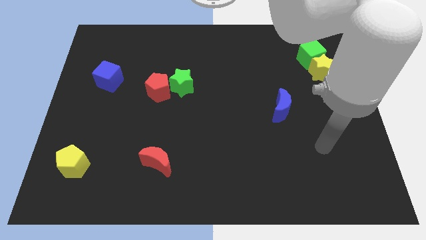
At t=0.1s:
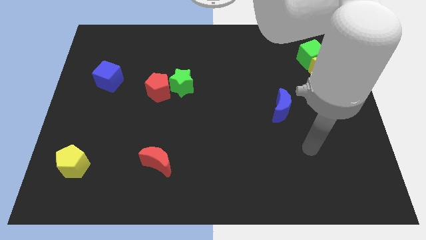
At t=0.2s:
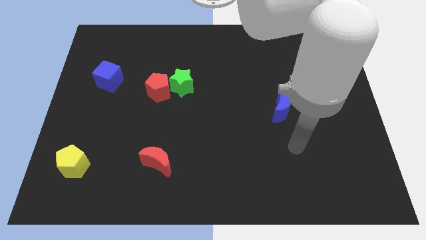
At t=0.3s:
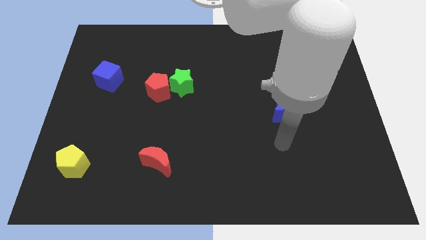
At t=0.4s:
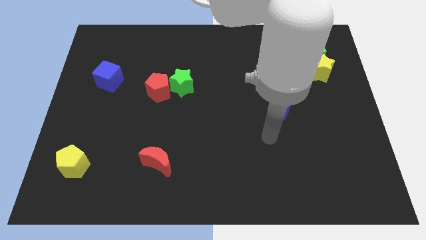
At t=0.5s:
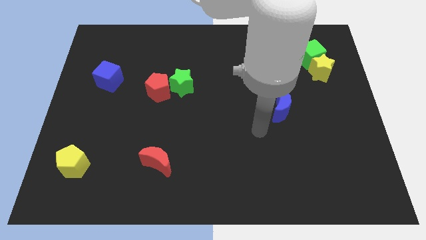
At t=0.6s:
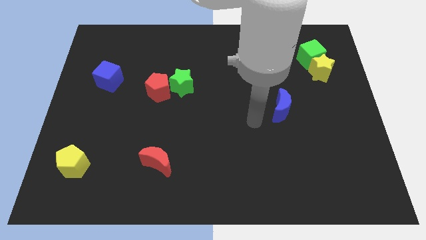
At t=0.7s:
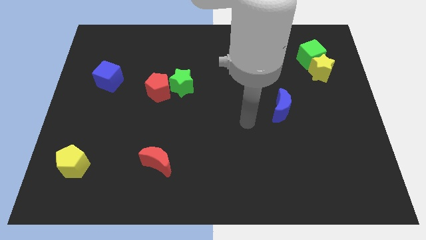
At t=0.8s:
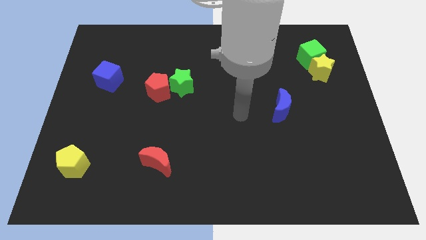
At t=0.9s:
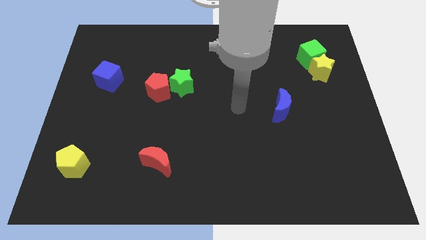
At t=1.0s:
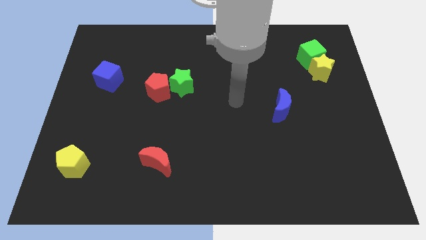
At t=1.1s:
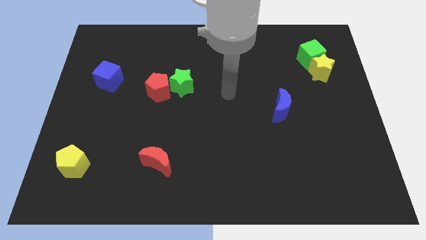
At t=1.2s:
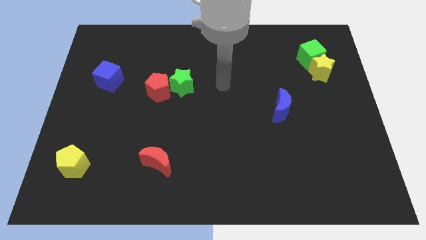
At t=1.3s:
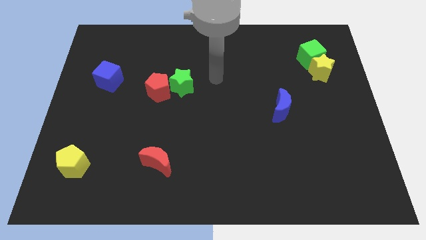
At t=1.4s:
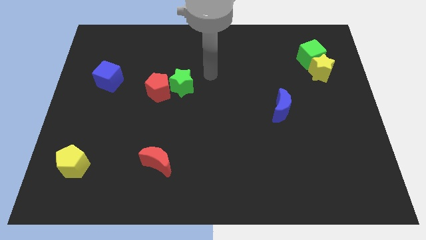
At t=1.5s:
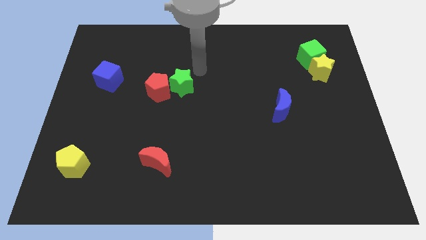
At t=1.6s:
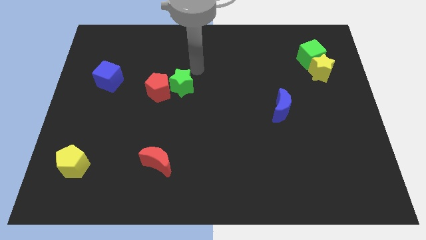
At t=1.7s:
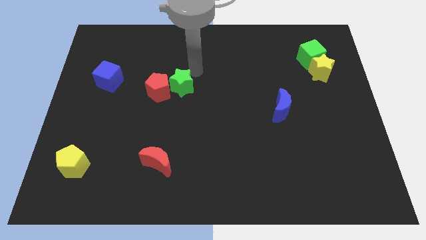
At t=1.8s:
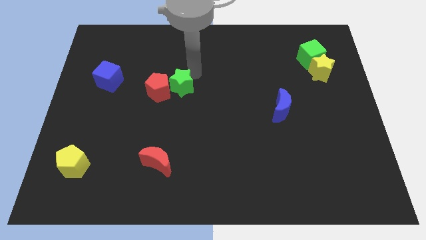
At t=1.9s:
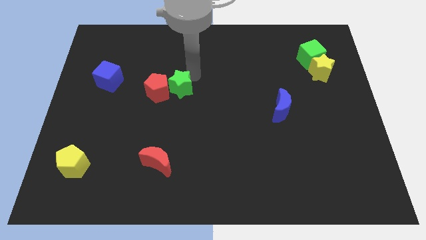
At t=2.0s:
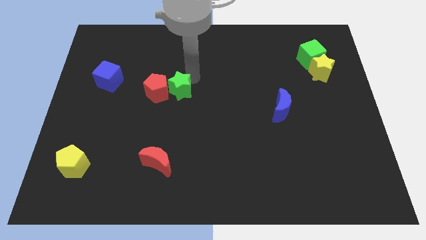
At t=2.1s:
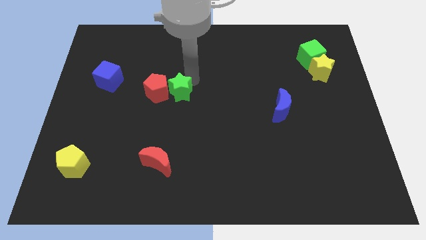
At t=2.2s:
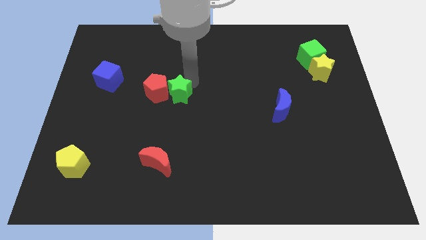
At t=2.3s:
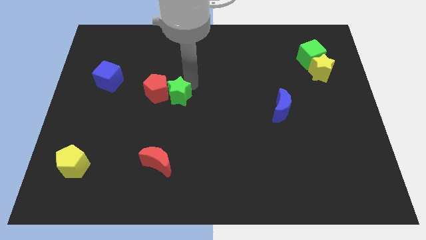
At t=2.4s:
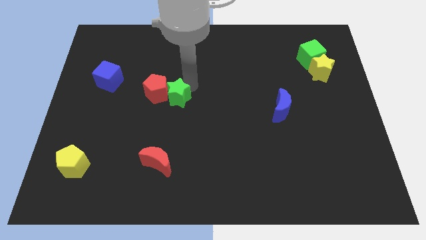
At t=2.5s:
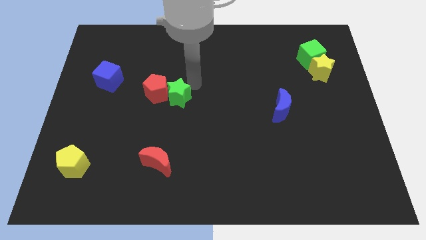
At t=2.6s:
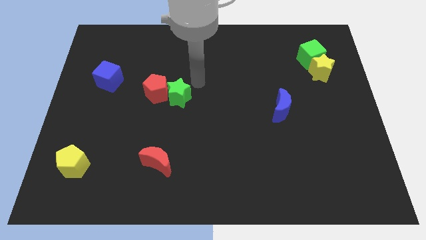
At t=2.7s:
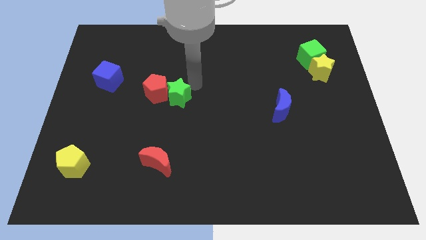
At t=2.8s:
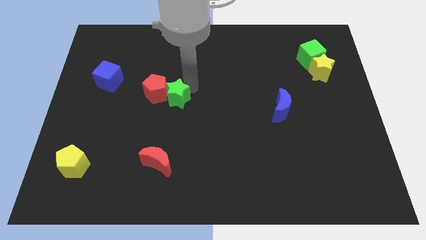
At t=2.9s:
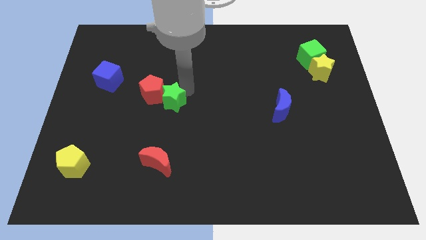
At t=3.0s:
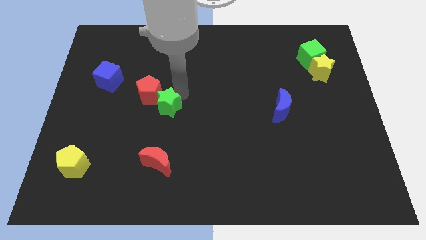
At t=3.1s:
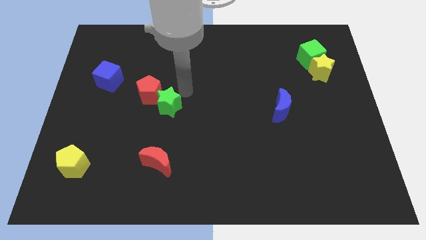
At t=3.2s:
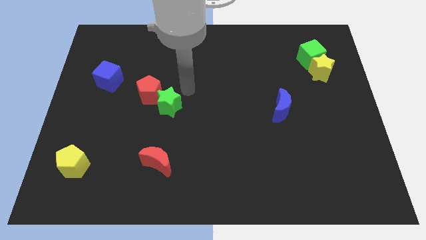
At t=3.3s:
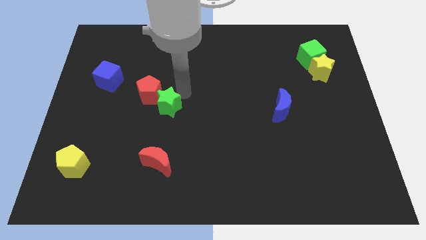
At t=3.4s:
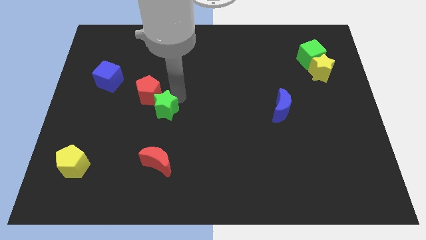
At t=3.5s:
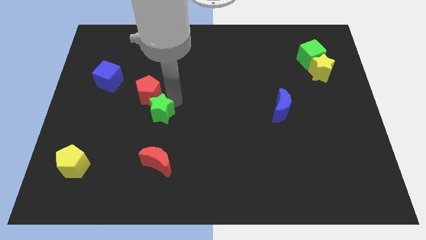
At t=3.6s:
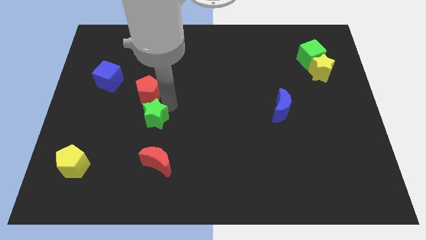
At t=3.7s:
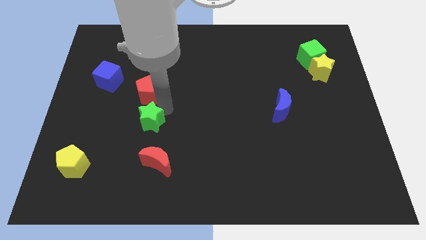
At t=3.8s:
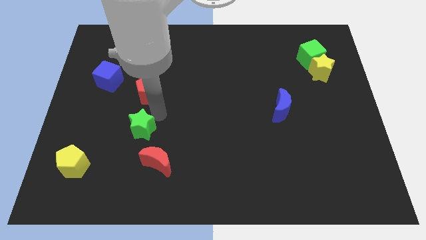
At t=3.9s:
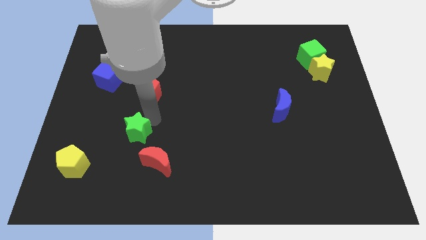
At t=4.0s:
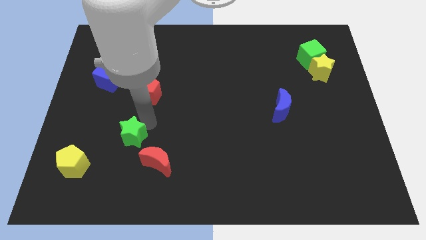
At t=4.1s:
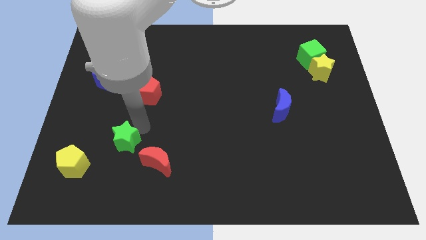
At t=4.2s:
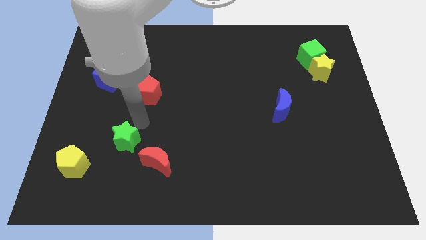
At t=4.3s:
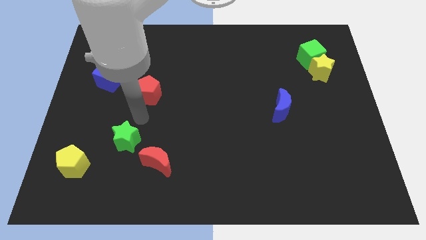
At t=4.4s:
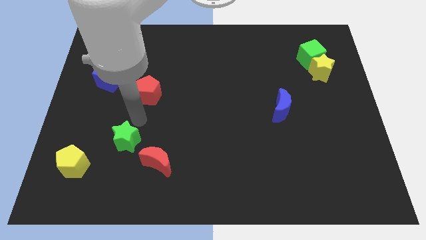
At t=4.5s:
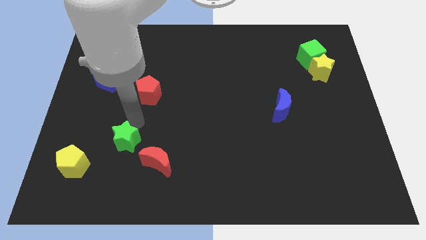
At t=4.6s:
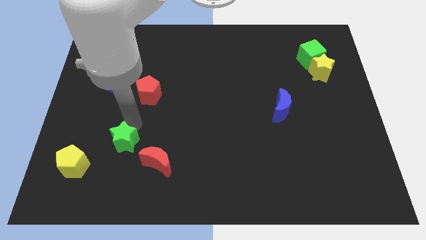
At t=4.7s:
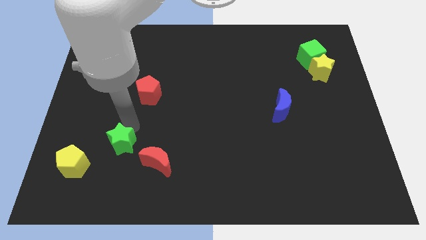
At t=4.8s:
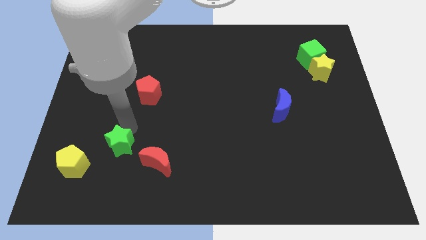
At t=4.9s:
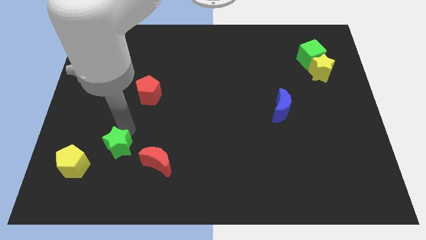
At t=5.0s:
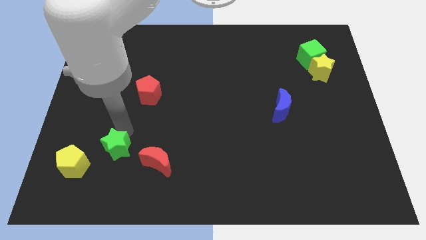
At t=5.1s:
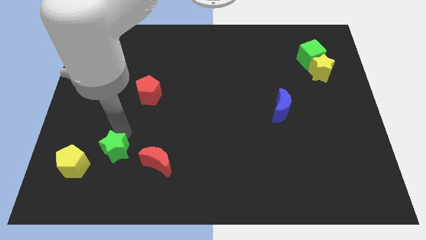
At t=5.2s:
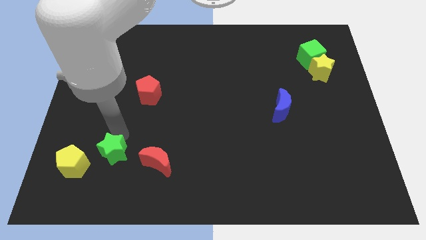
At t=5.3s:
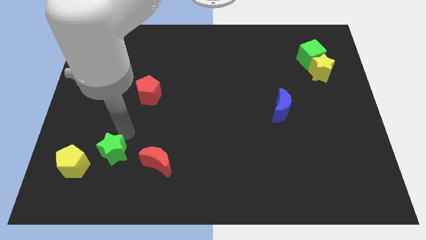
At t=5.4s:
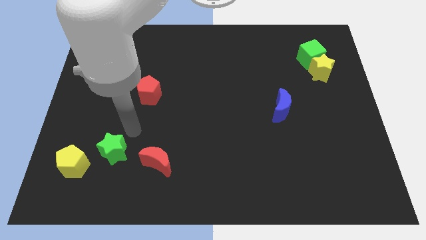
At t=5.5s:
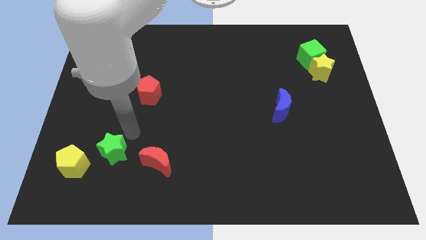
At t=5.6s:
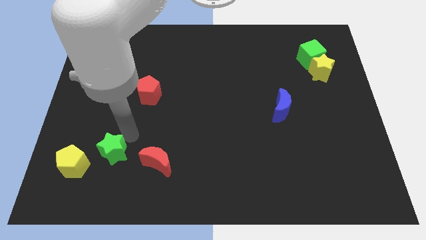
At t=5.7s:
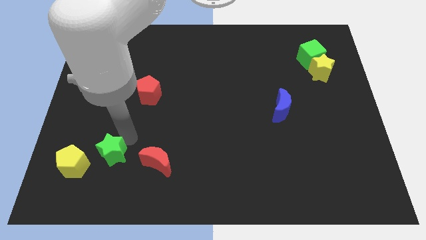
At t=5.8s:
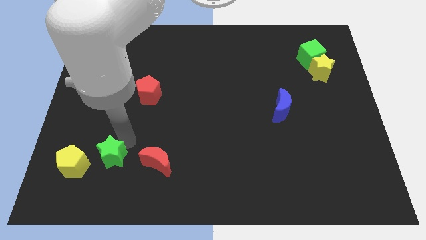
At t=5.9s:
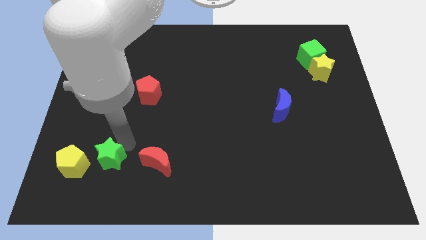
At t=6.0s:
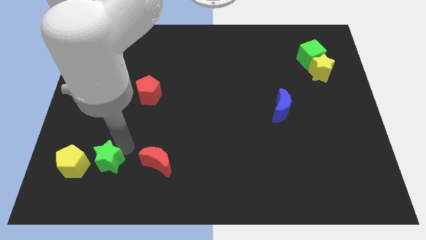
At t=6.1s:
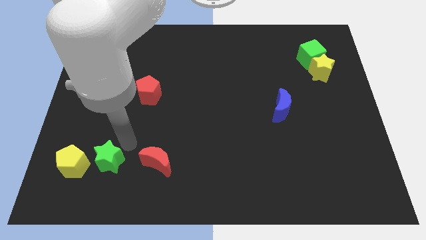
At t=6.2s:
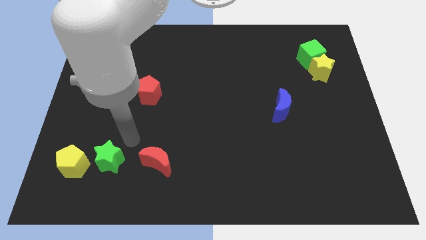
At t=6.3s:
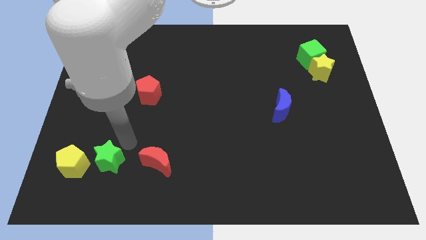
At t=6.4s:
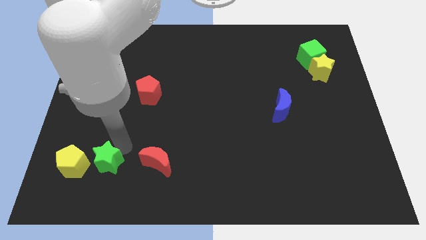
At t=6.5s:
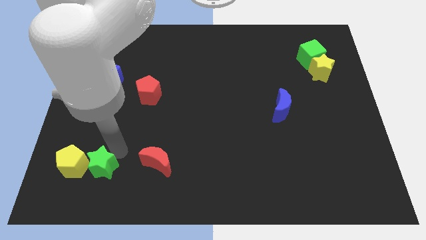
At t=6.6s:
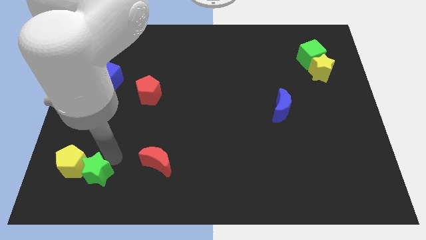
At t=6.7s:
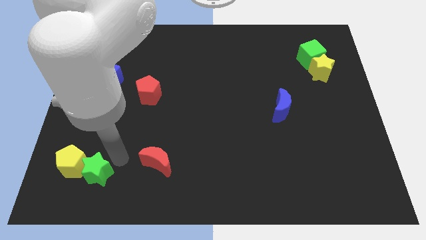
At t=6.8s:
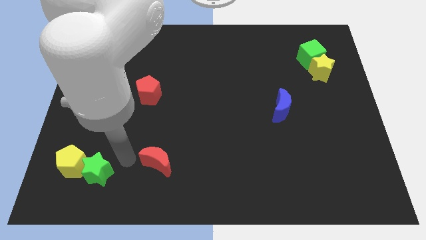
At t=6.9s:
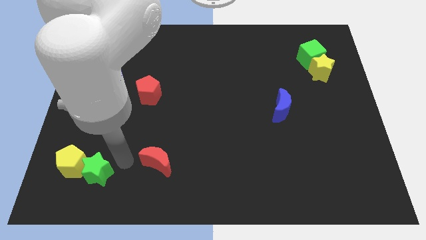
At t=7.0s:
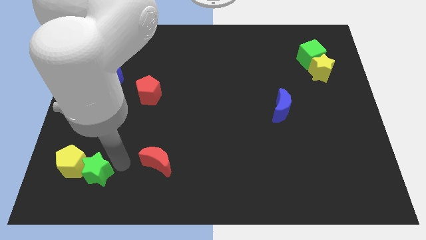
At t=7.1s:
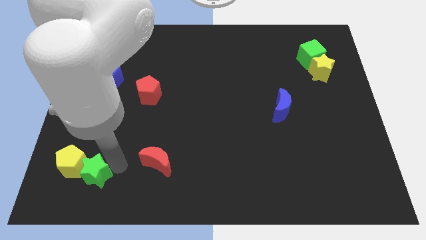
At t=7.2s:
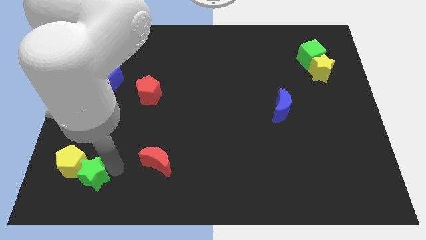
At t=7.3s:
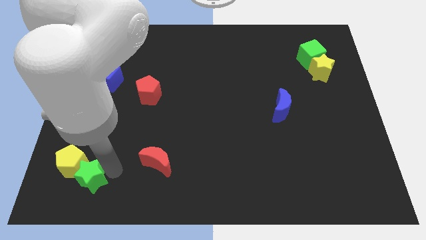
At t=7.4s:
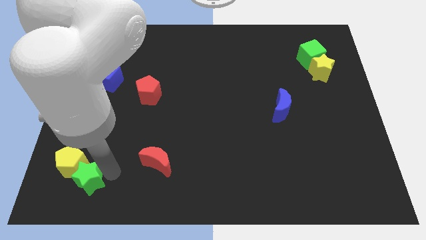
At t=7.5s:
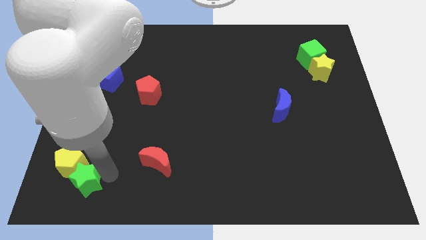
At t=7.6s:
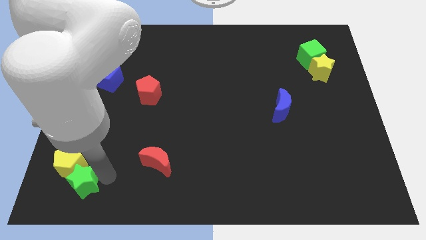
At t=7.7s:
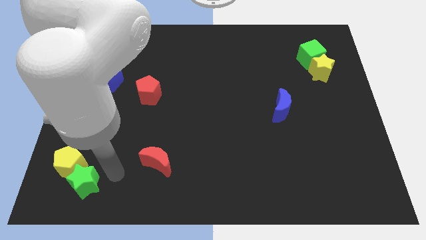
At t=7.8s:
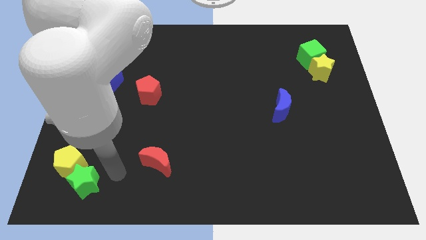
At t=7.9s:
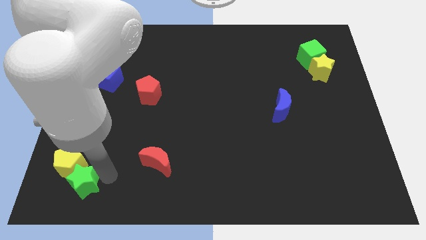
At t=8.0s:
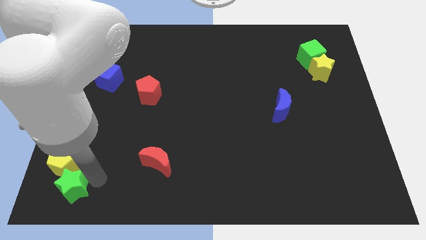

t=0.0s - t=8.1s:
push the green star to the lower left corner
